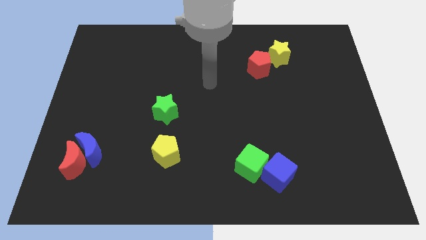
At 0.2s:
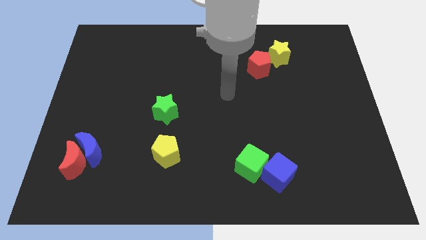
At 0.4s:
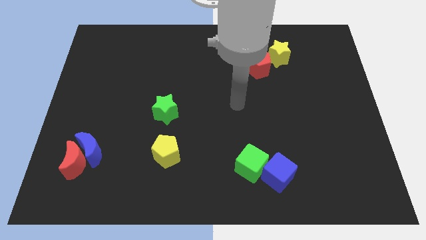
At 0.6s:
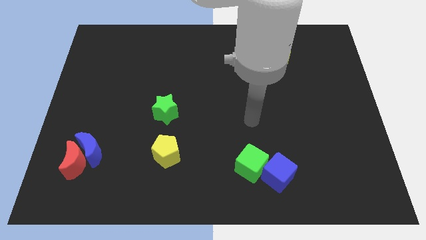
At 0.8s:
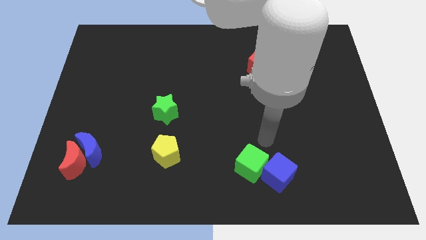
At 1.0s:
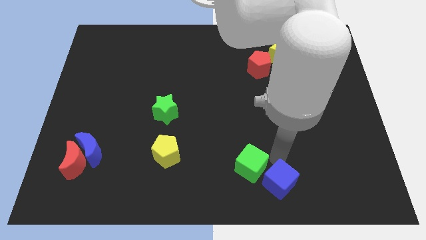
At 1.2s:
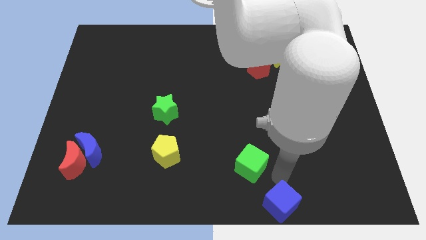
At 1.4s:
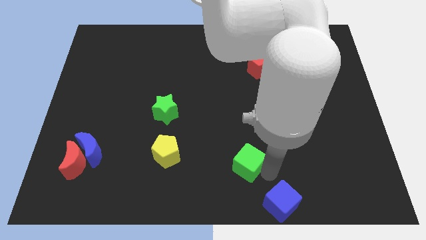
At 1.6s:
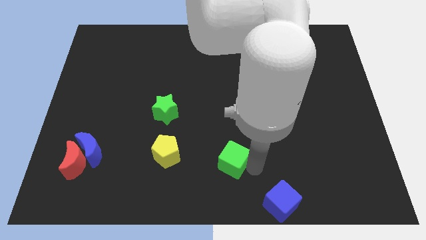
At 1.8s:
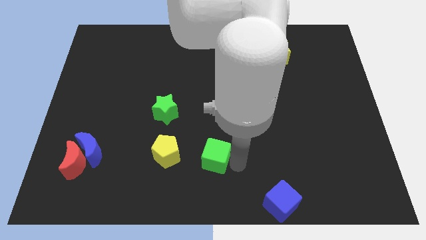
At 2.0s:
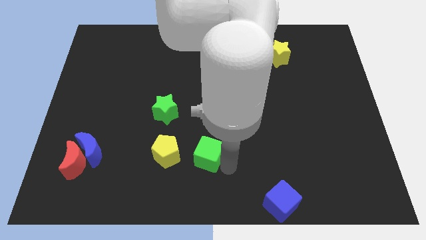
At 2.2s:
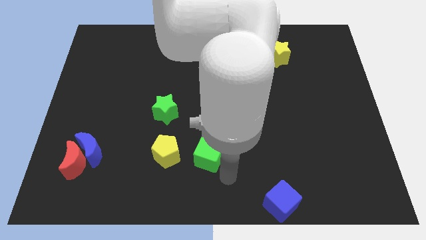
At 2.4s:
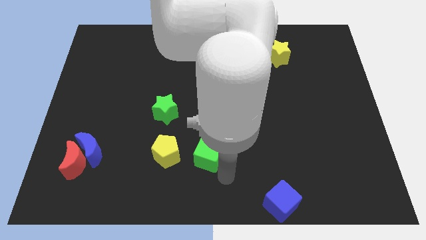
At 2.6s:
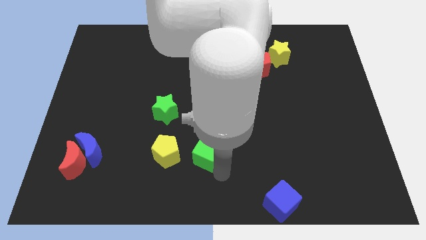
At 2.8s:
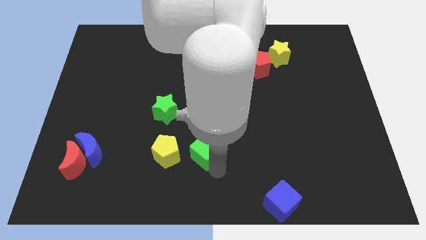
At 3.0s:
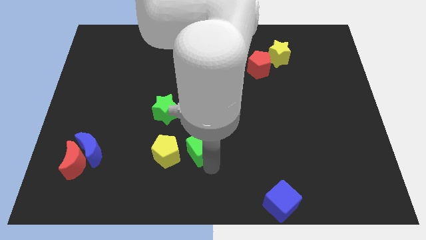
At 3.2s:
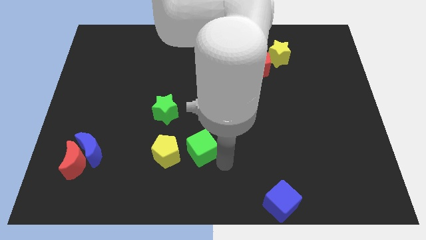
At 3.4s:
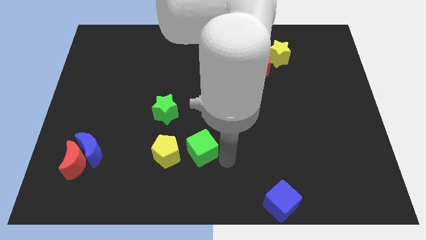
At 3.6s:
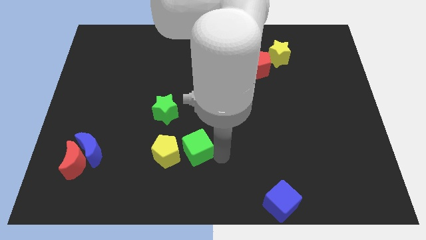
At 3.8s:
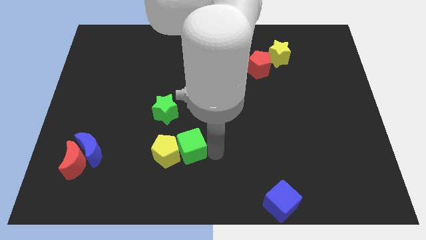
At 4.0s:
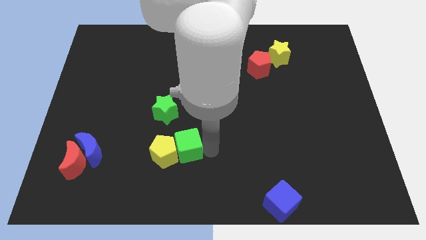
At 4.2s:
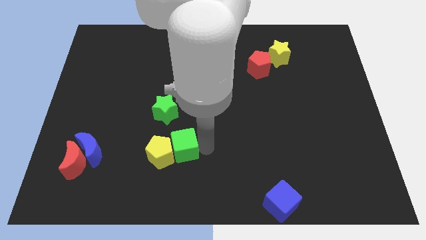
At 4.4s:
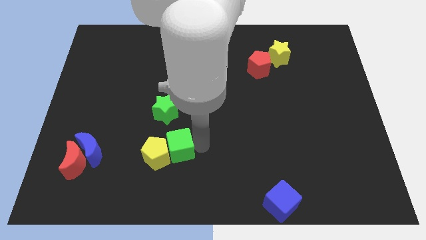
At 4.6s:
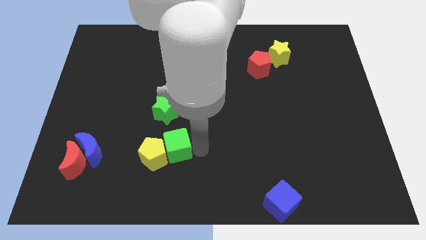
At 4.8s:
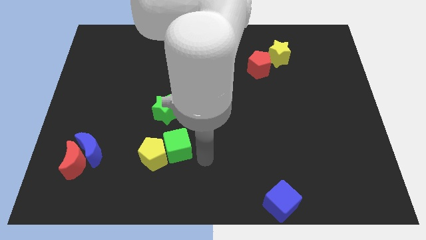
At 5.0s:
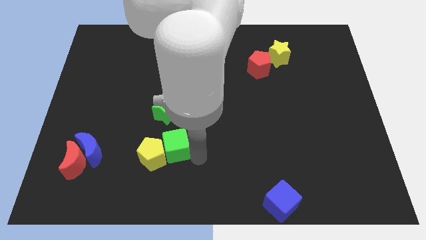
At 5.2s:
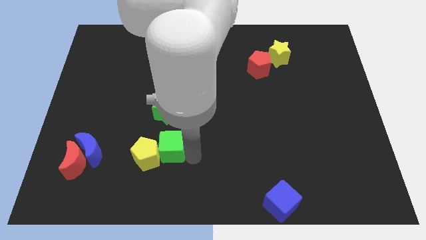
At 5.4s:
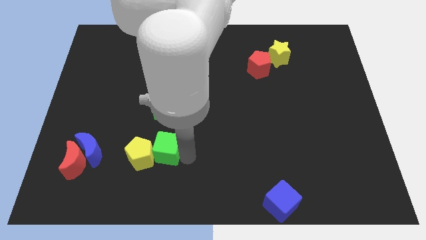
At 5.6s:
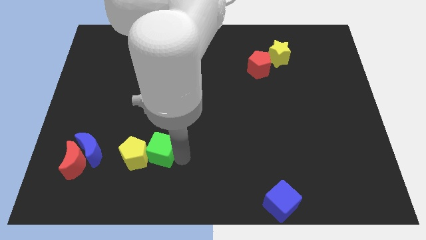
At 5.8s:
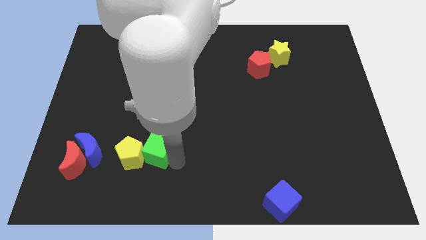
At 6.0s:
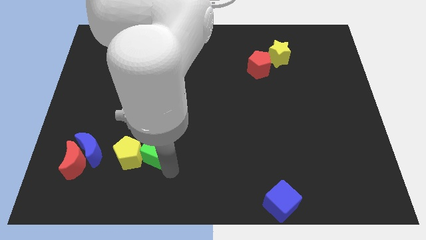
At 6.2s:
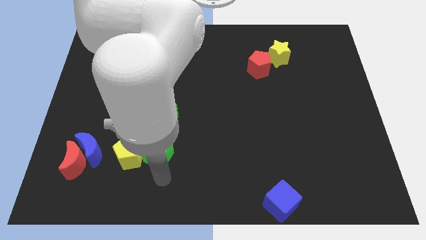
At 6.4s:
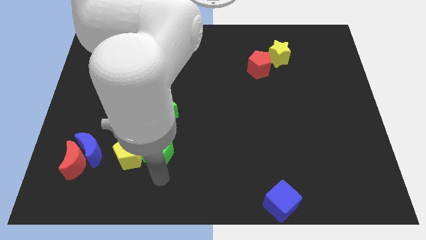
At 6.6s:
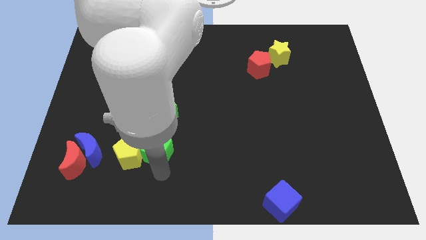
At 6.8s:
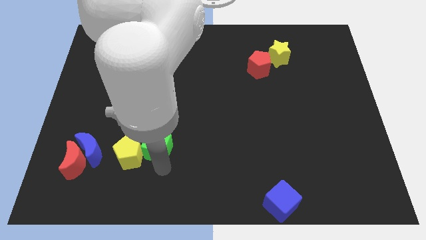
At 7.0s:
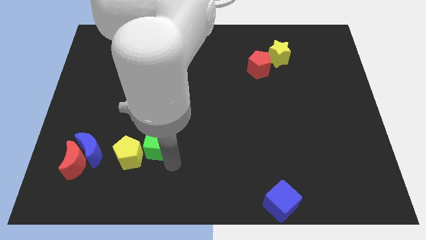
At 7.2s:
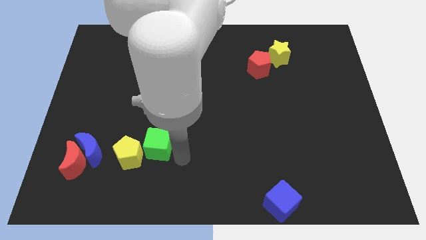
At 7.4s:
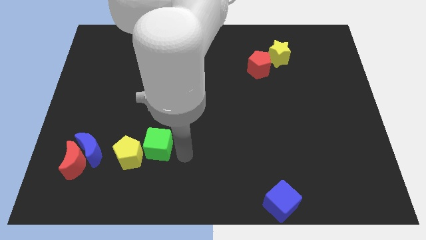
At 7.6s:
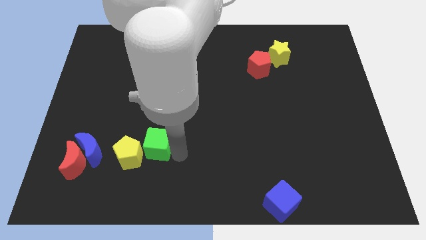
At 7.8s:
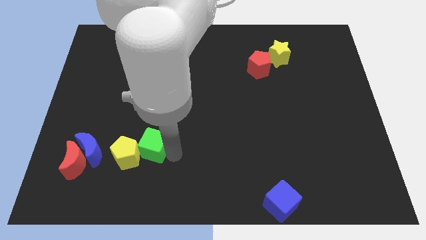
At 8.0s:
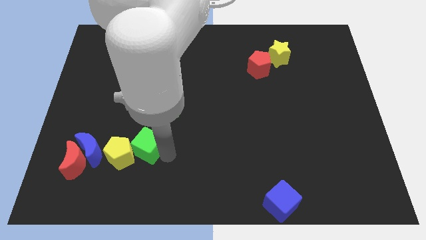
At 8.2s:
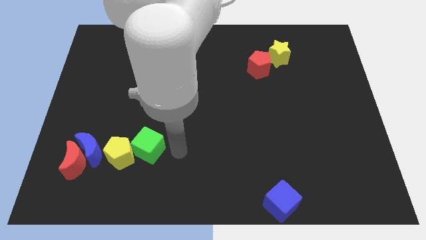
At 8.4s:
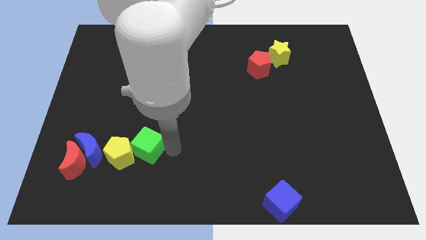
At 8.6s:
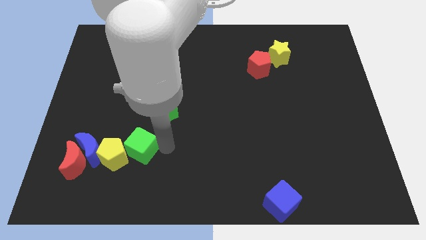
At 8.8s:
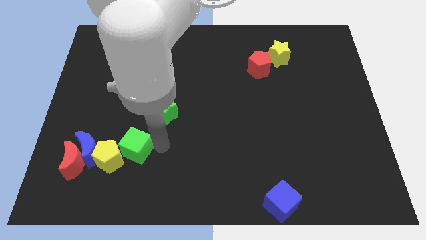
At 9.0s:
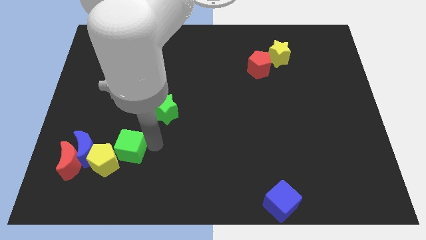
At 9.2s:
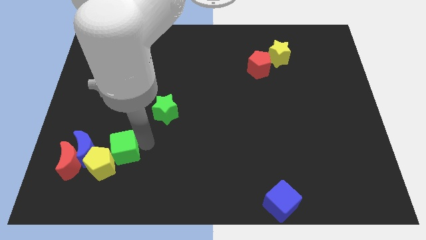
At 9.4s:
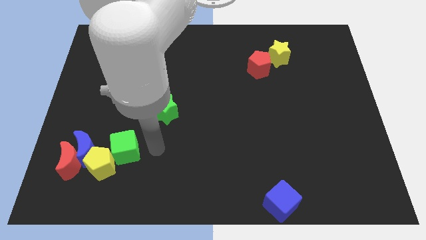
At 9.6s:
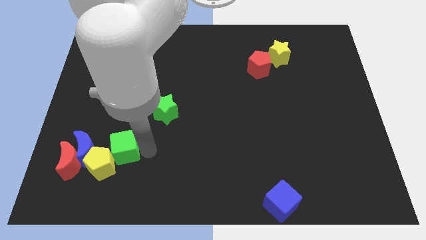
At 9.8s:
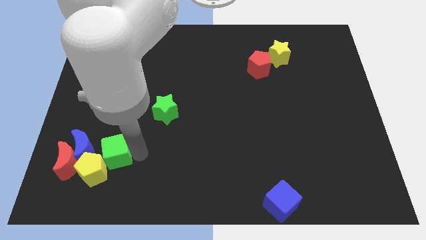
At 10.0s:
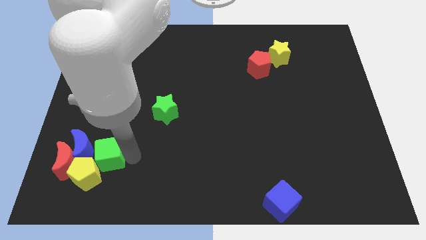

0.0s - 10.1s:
put the green cube to the blue moon

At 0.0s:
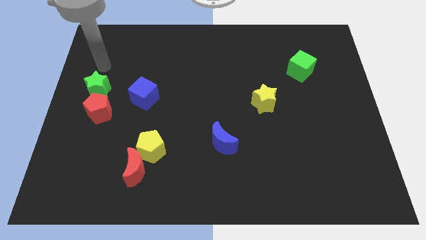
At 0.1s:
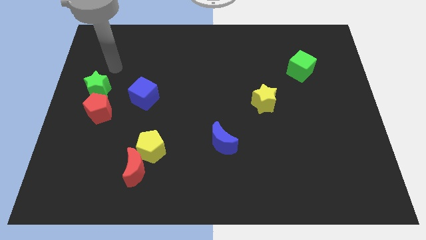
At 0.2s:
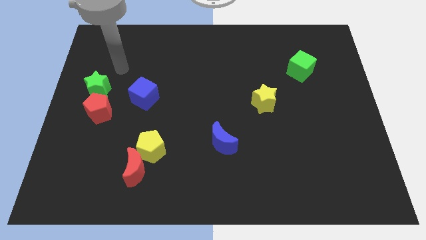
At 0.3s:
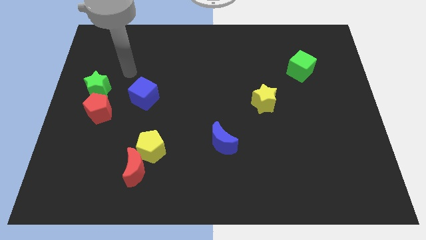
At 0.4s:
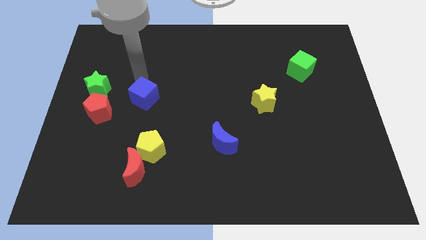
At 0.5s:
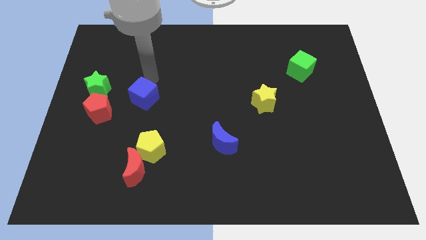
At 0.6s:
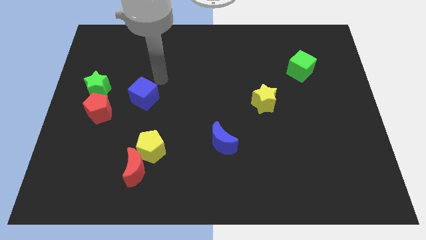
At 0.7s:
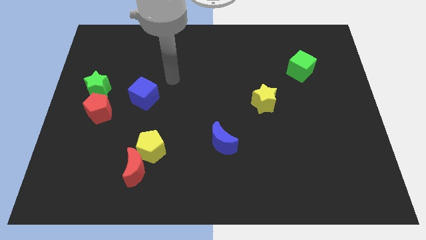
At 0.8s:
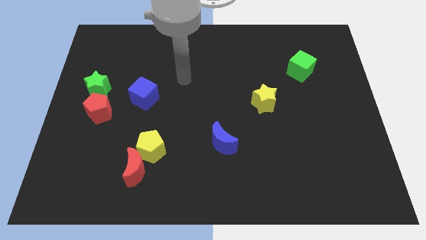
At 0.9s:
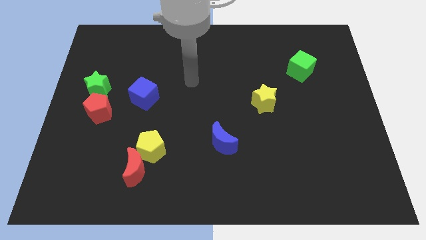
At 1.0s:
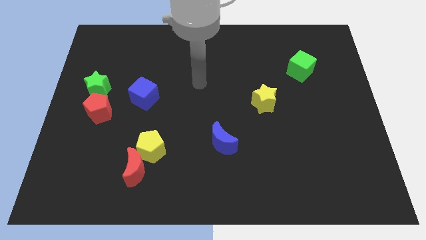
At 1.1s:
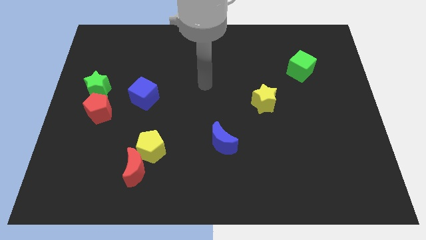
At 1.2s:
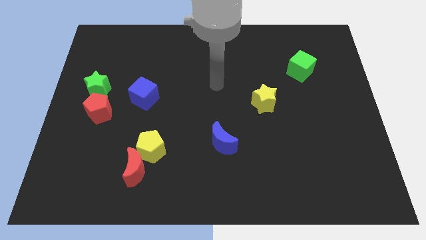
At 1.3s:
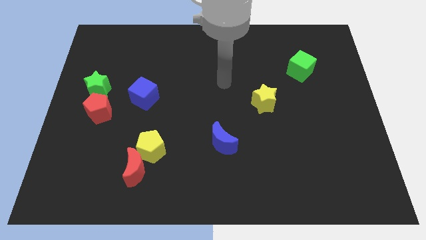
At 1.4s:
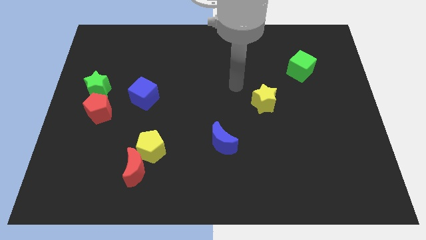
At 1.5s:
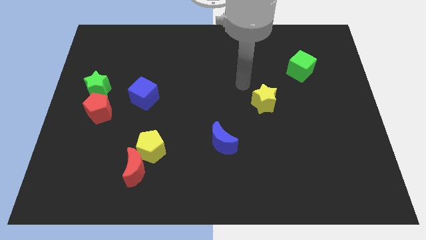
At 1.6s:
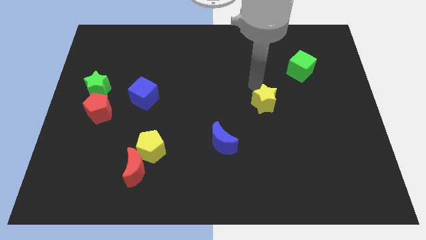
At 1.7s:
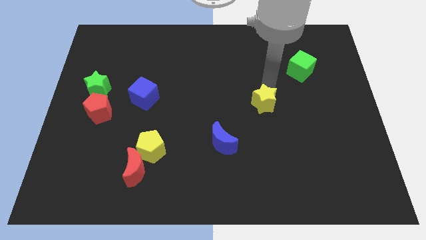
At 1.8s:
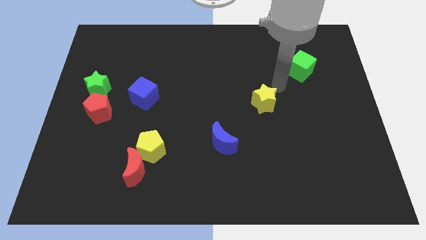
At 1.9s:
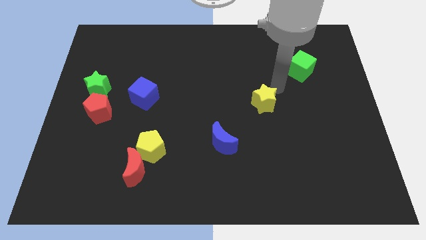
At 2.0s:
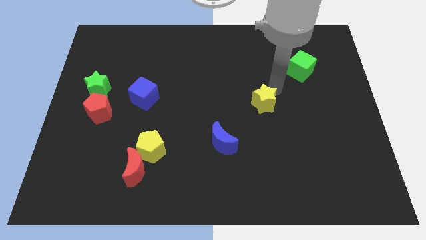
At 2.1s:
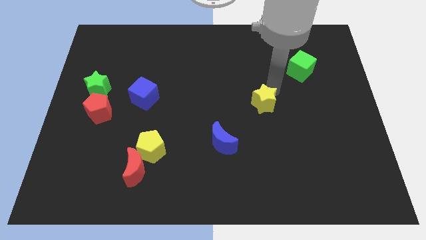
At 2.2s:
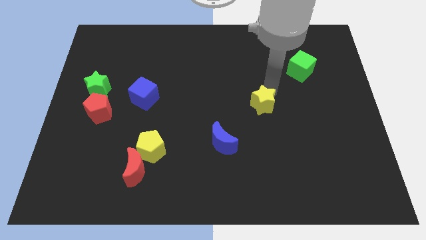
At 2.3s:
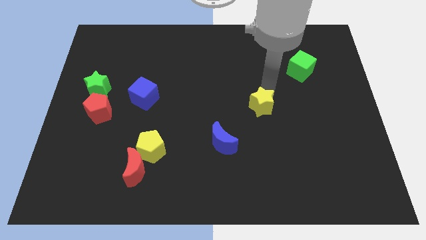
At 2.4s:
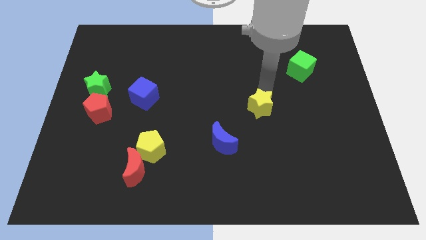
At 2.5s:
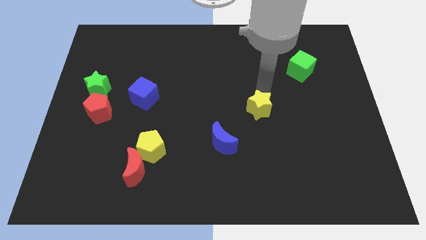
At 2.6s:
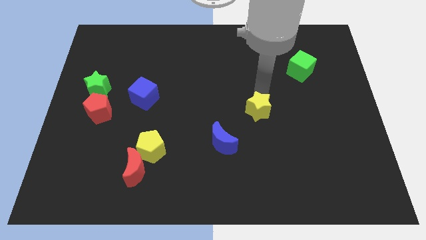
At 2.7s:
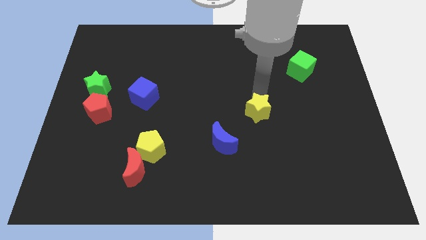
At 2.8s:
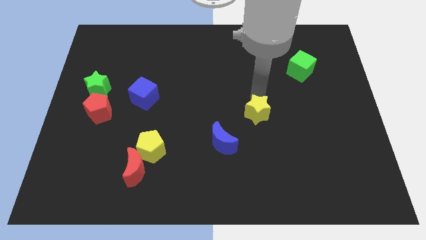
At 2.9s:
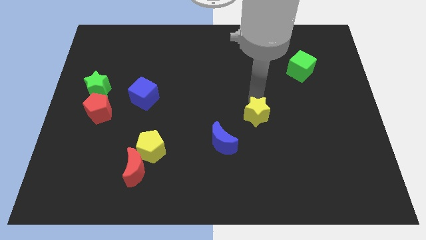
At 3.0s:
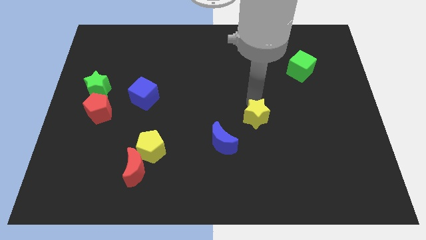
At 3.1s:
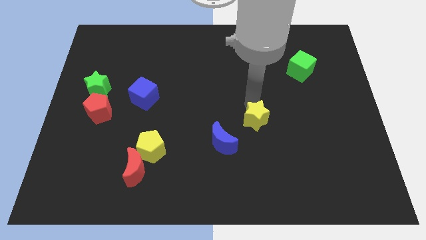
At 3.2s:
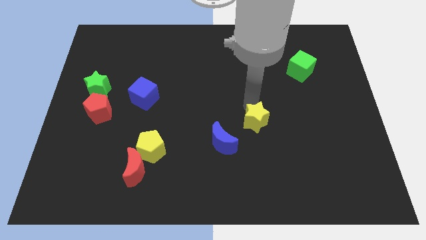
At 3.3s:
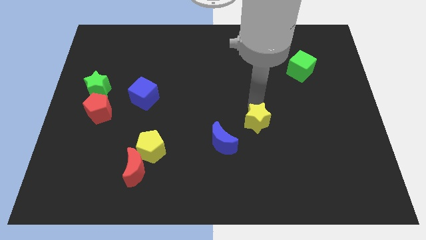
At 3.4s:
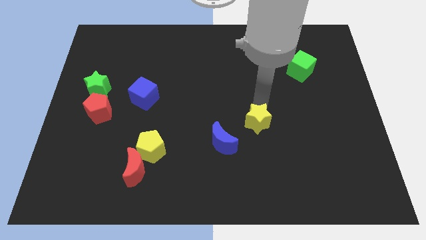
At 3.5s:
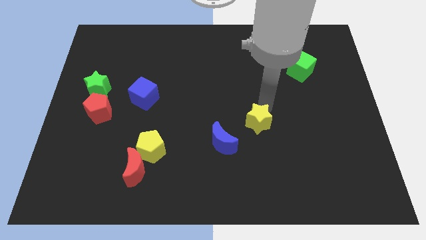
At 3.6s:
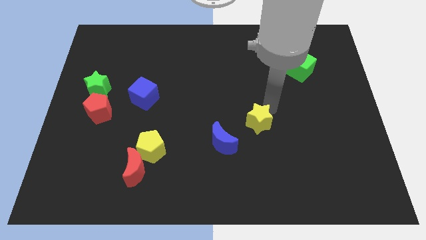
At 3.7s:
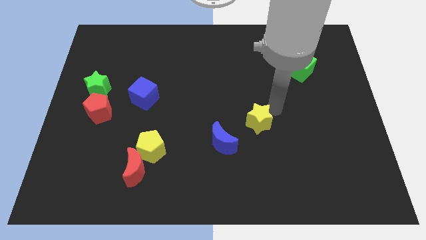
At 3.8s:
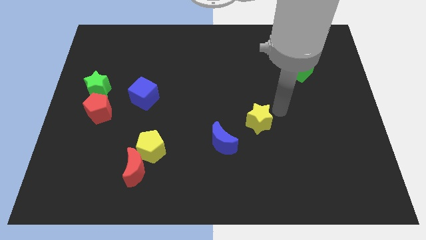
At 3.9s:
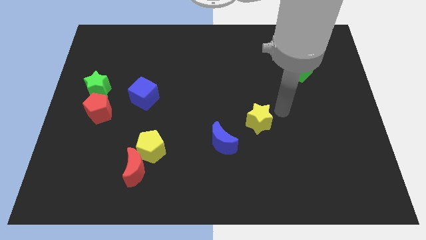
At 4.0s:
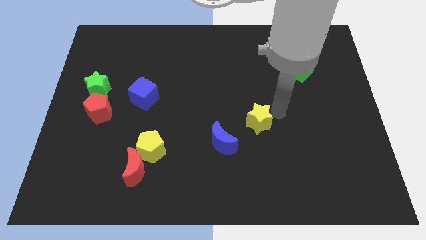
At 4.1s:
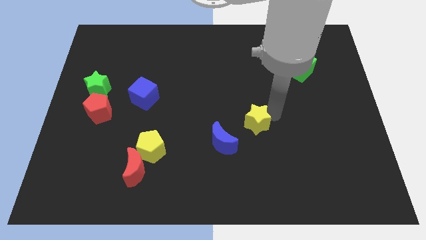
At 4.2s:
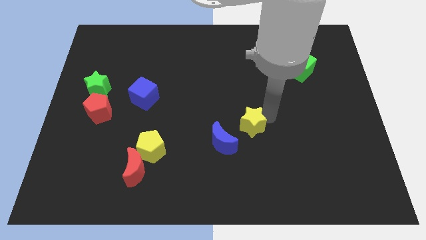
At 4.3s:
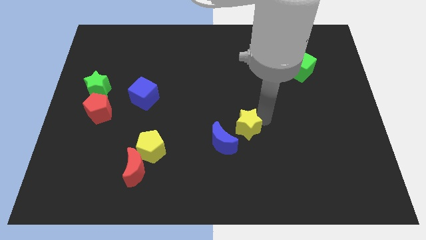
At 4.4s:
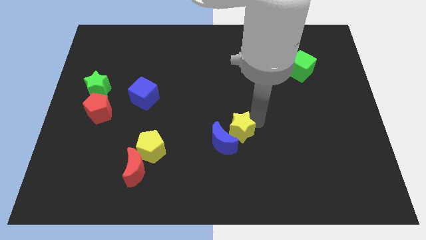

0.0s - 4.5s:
slide the yellow star next to the blue moon
